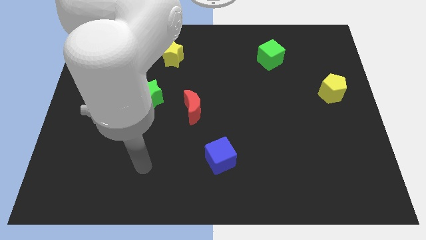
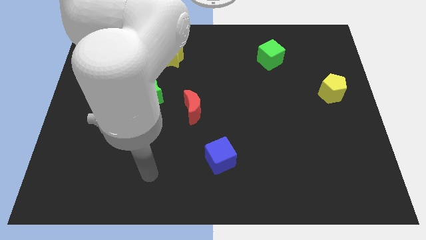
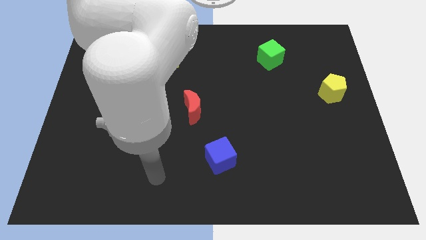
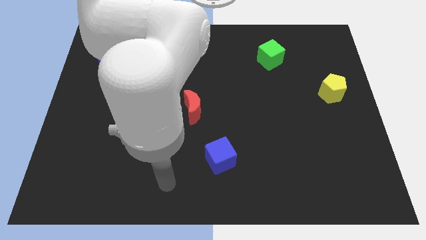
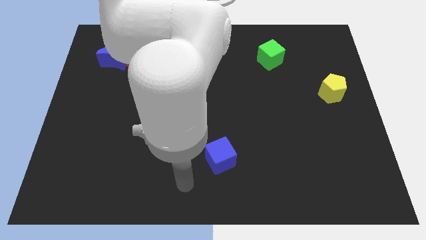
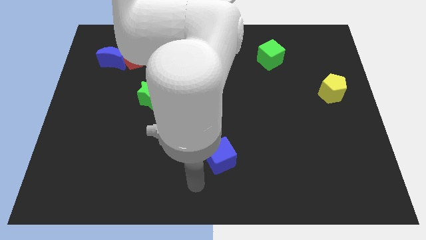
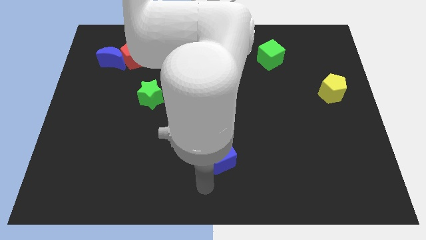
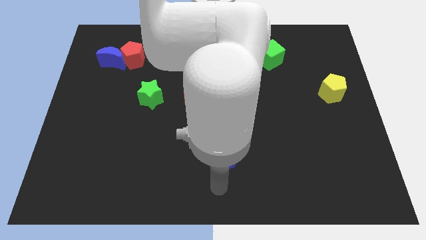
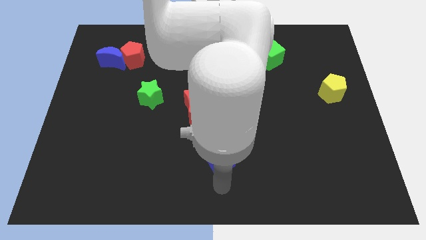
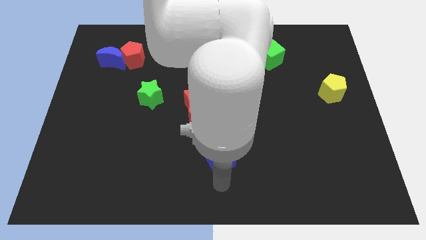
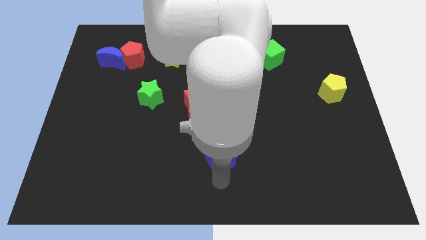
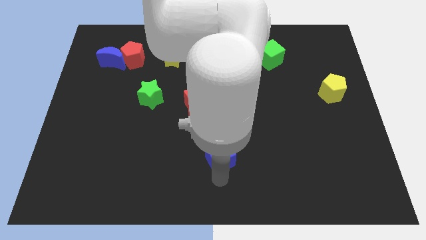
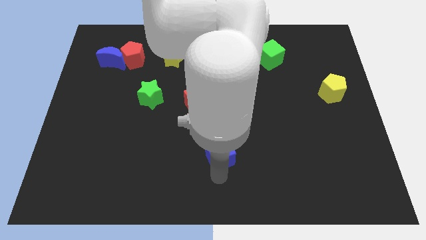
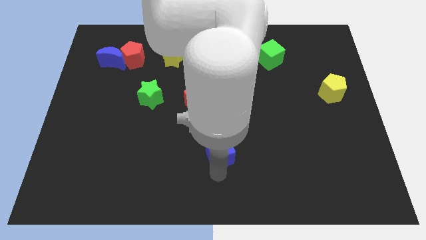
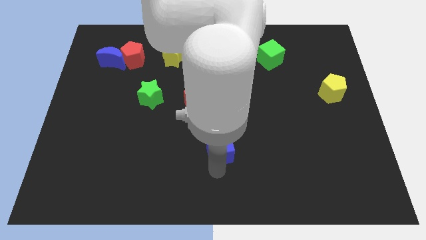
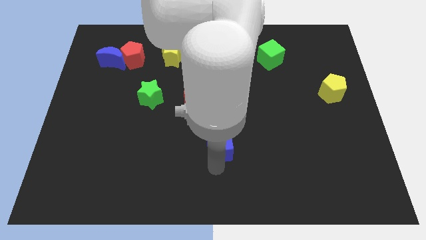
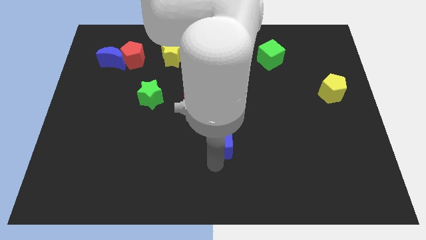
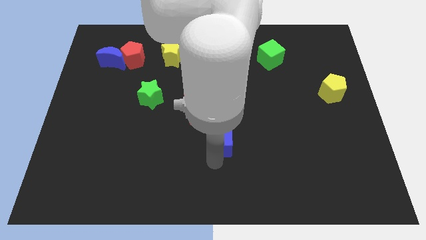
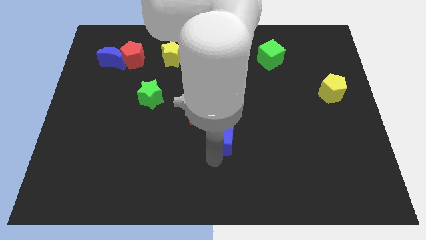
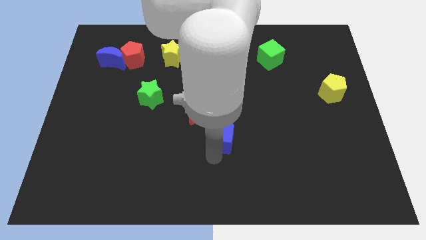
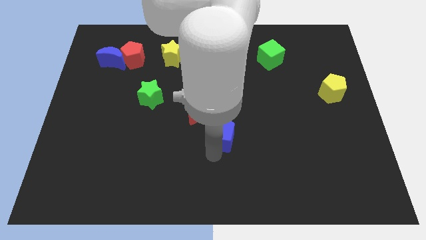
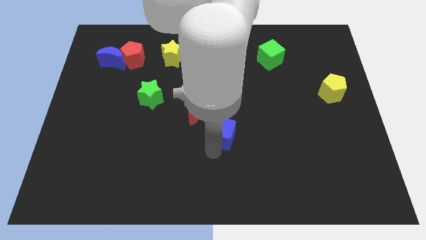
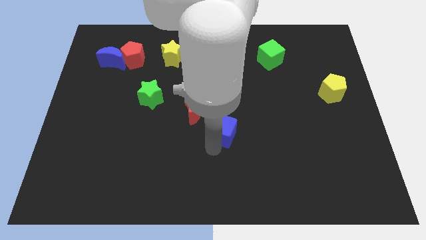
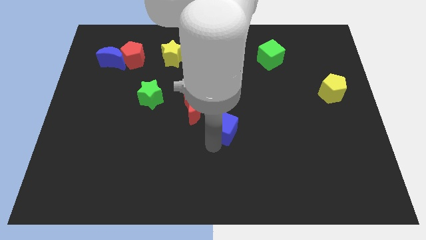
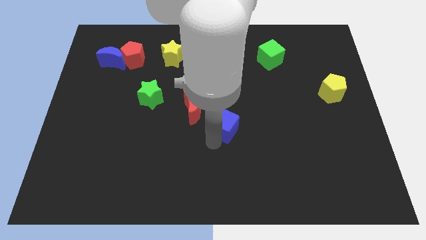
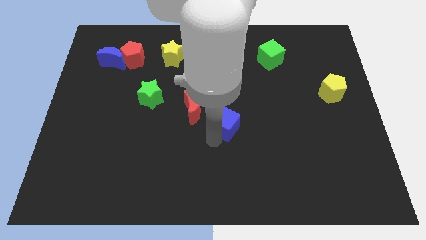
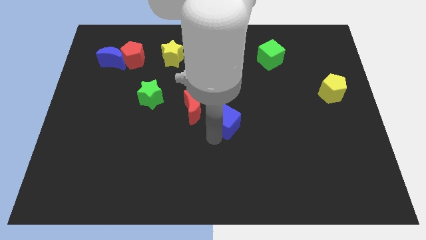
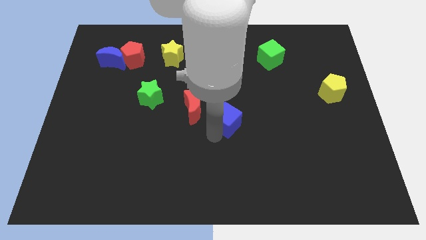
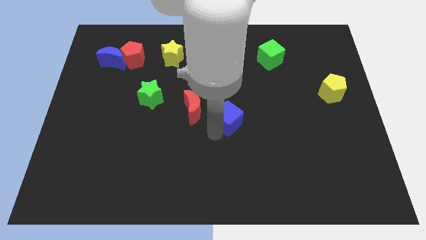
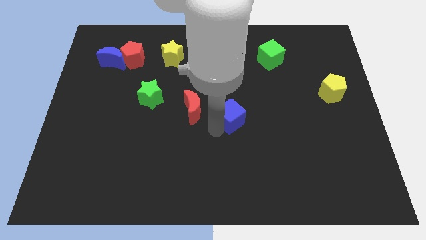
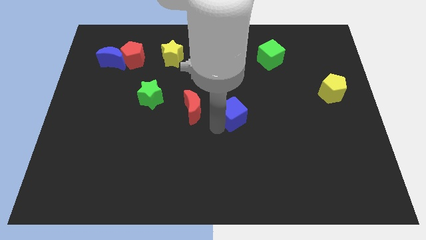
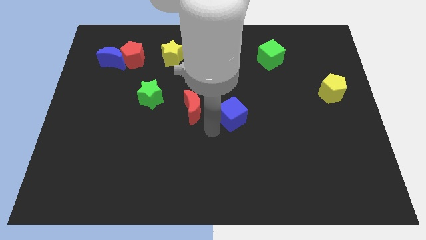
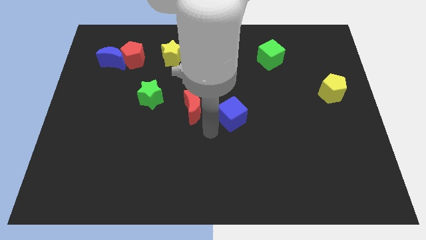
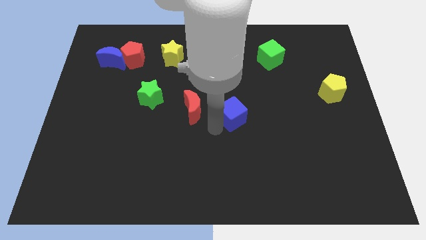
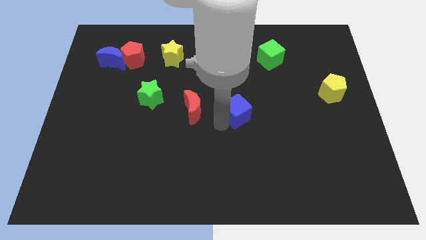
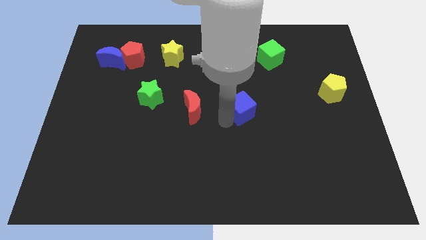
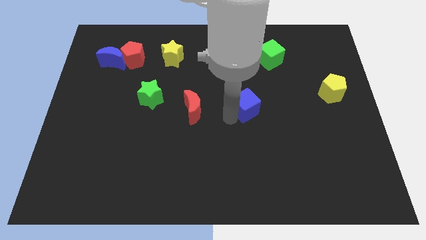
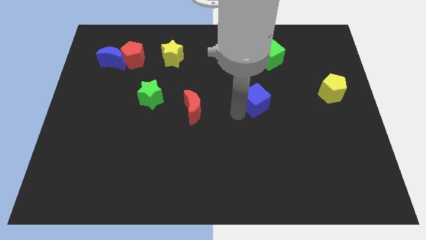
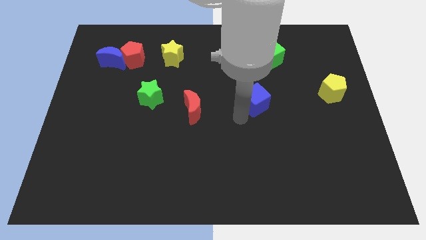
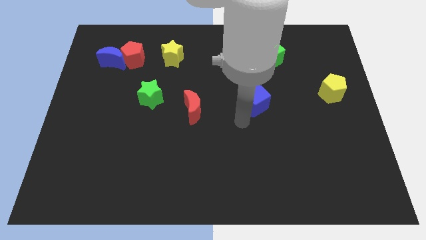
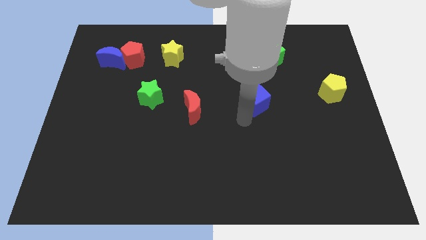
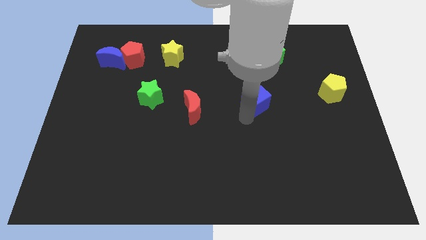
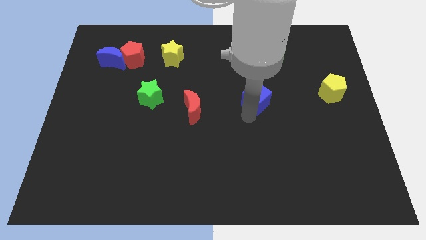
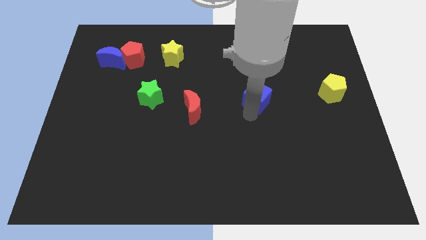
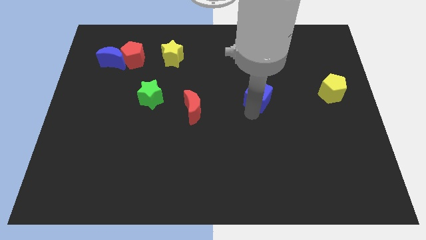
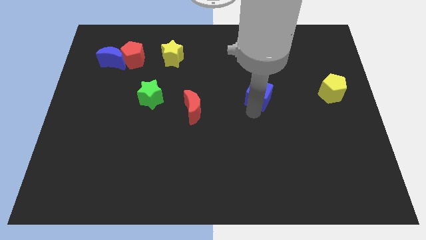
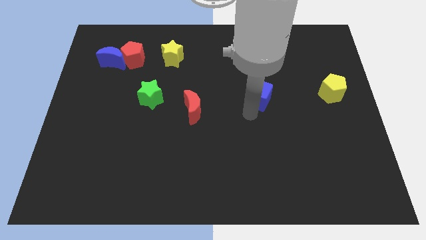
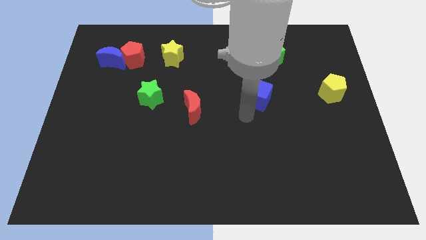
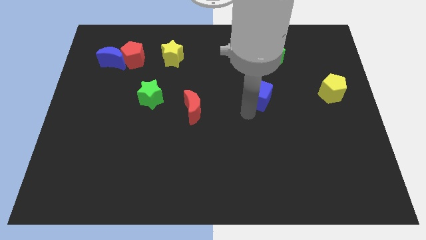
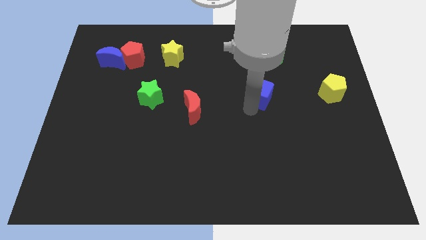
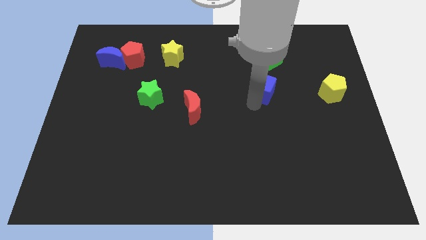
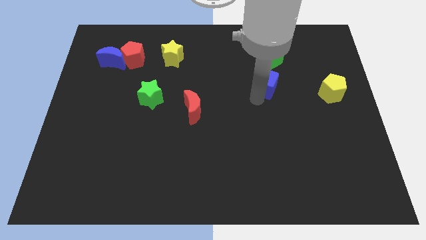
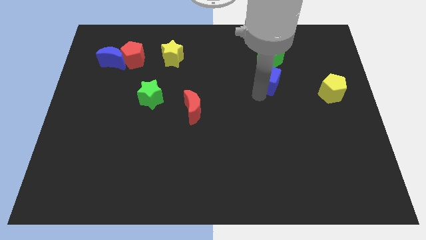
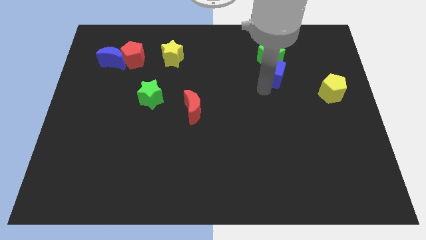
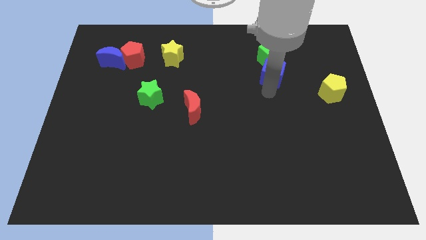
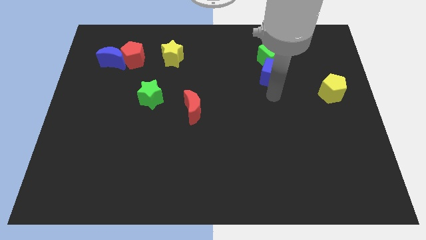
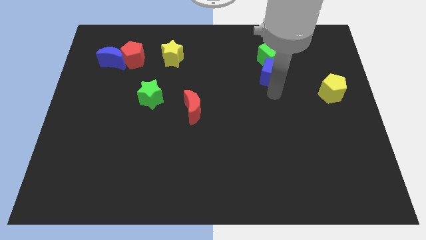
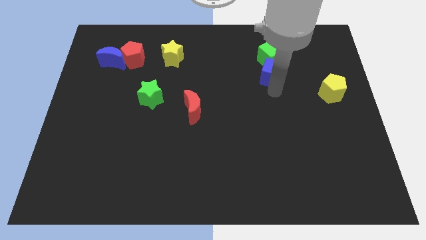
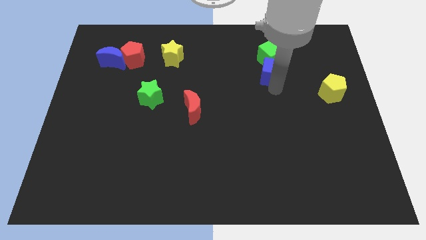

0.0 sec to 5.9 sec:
slide the blue cube towards the green cube

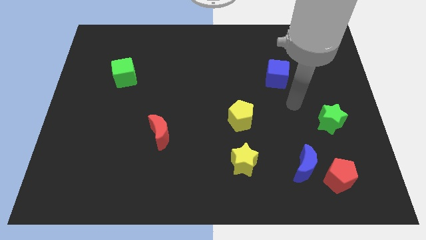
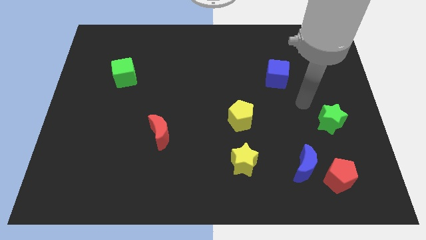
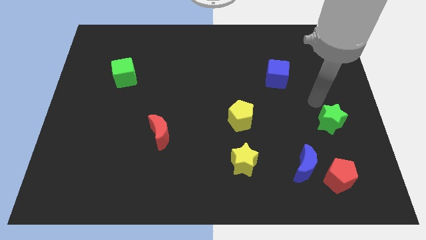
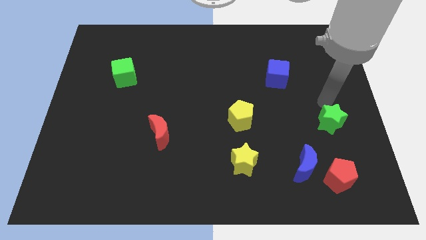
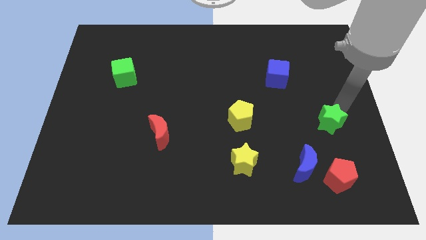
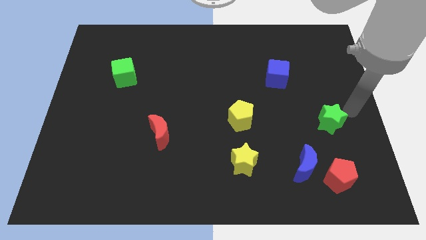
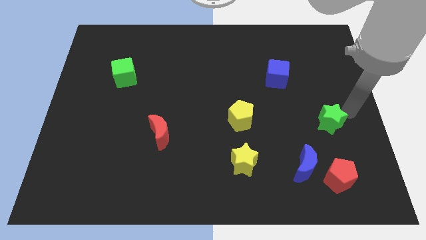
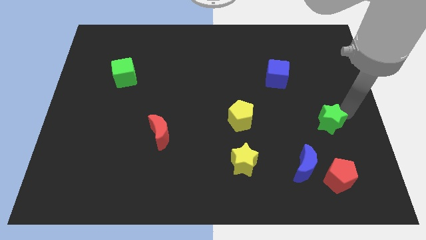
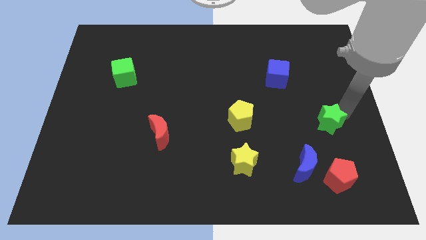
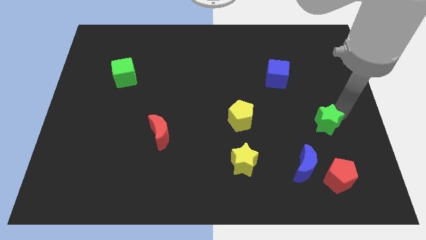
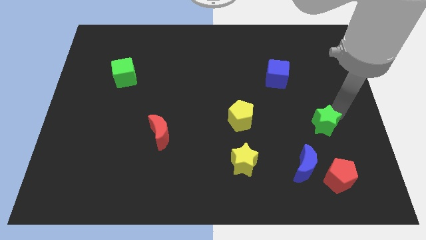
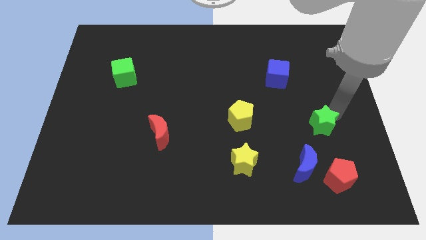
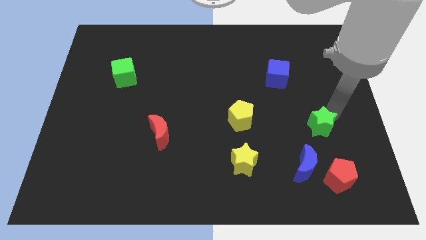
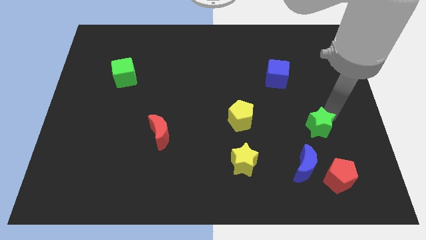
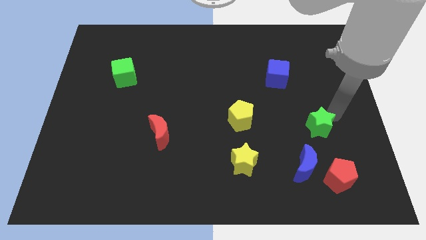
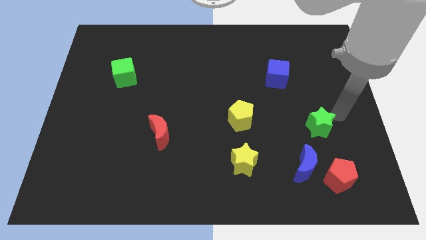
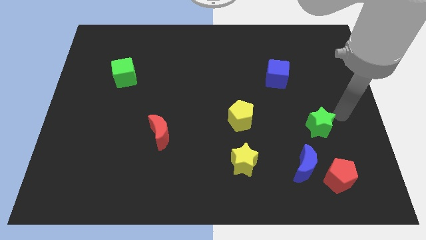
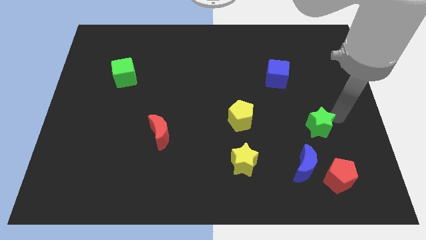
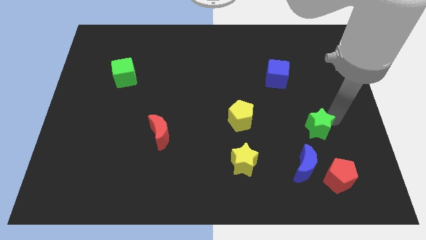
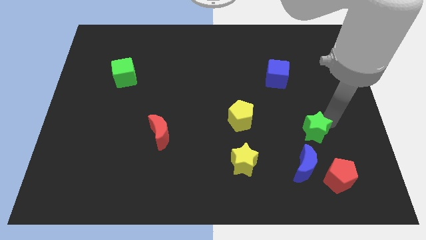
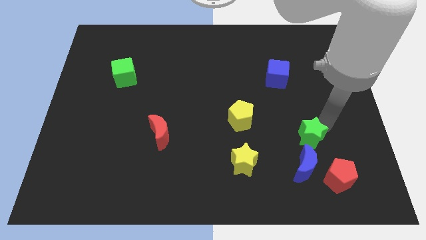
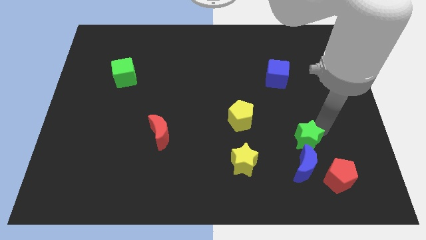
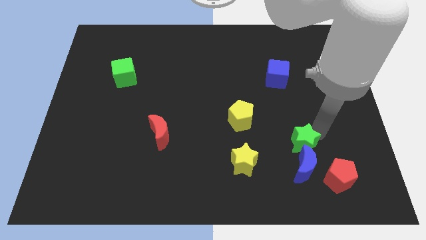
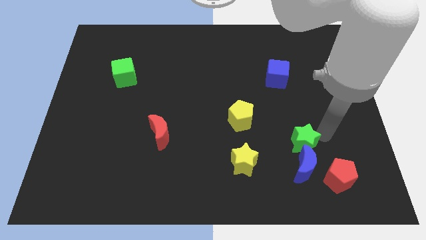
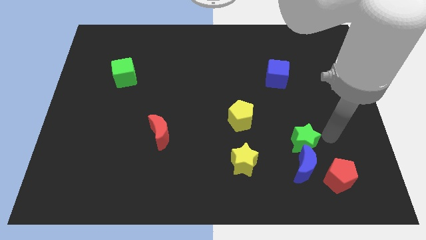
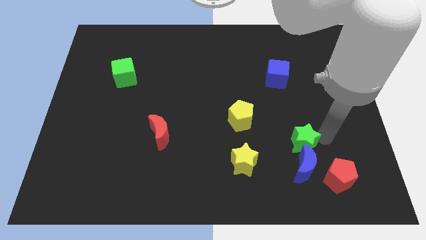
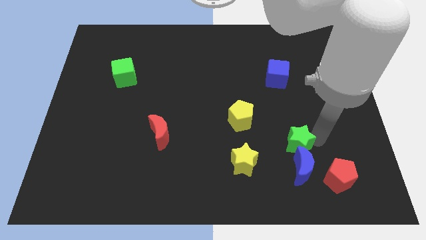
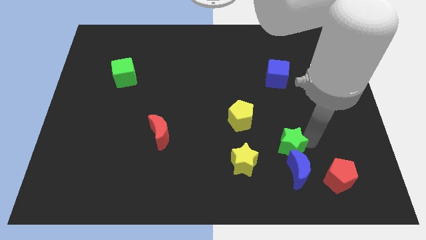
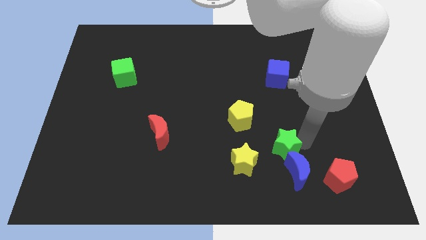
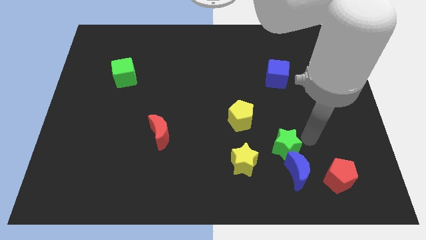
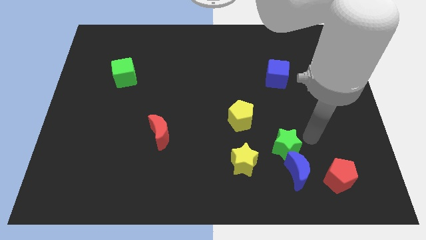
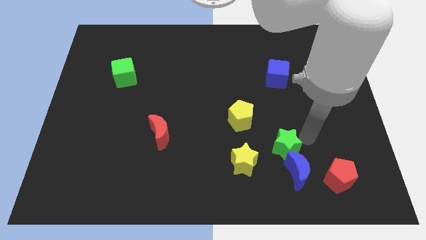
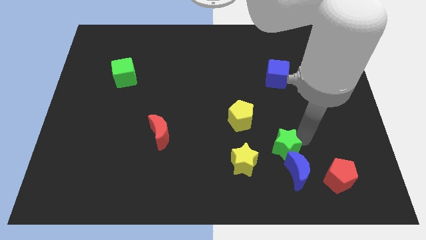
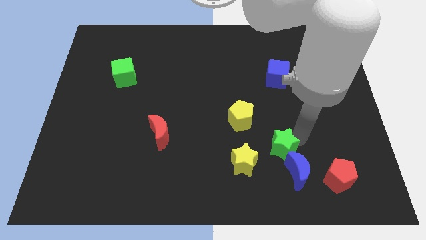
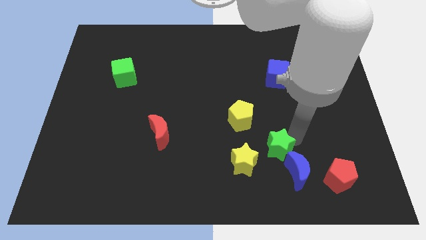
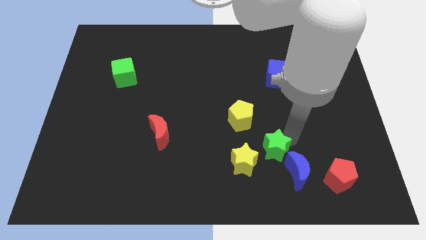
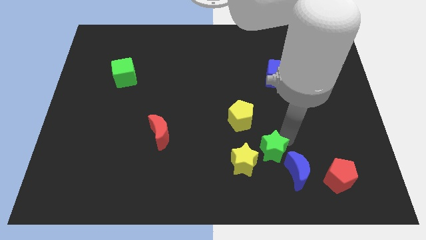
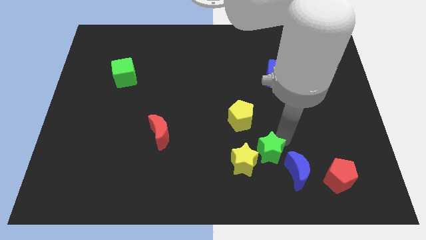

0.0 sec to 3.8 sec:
move the green star next to the yellow star
